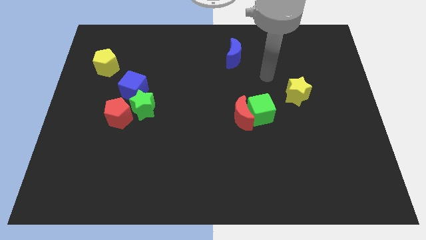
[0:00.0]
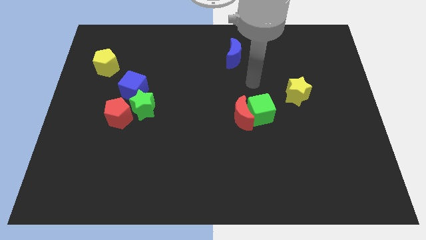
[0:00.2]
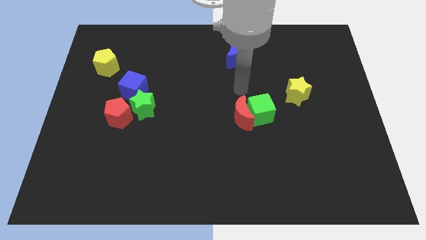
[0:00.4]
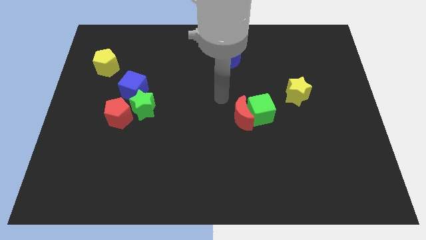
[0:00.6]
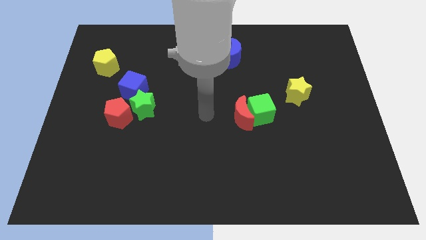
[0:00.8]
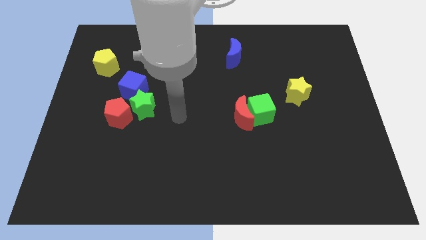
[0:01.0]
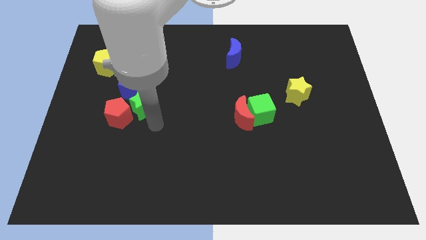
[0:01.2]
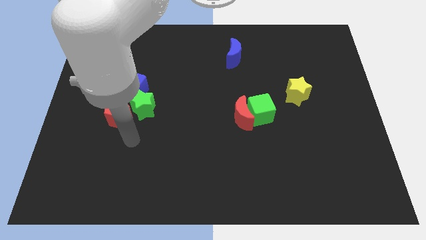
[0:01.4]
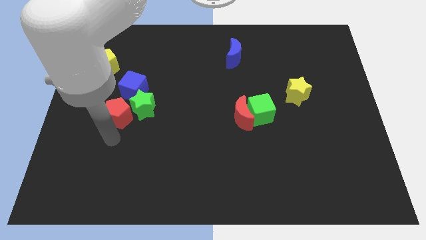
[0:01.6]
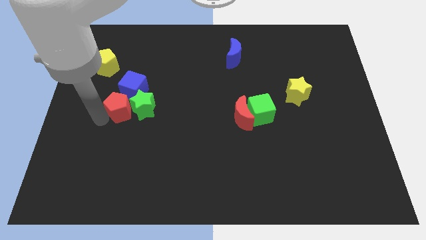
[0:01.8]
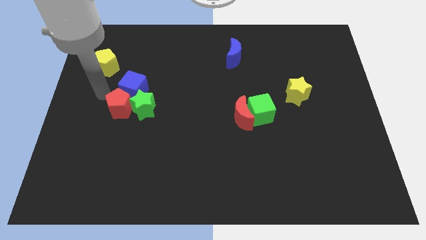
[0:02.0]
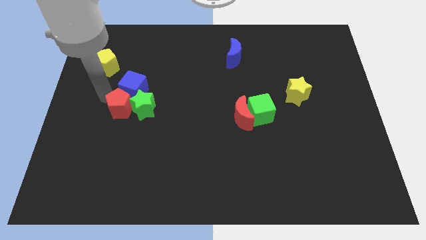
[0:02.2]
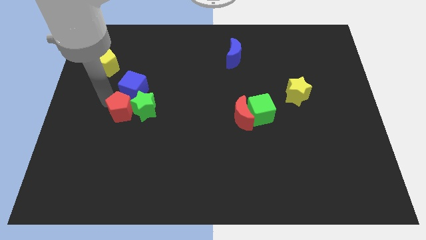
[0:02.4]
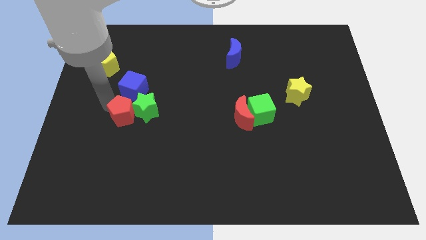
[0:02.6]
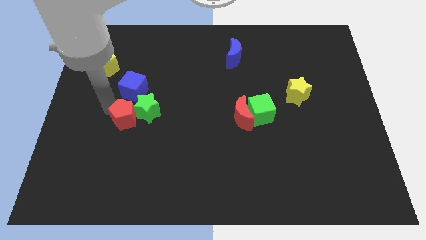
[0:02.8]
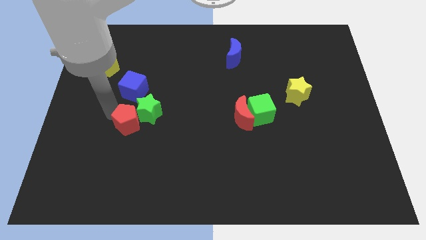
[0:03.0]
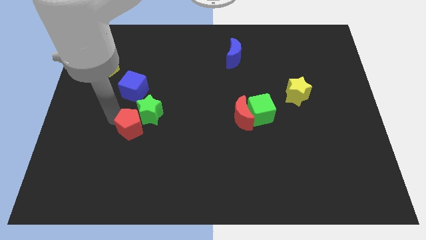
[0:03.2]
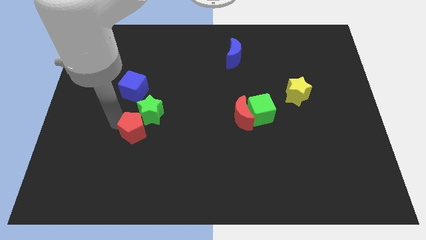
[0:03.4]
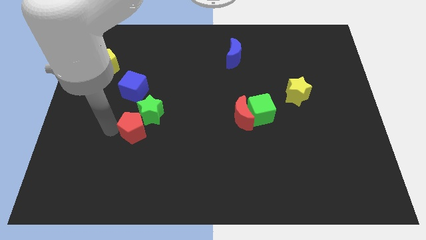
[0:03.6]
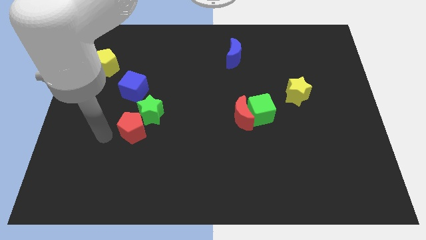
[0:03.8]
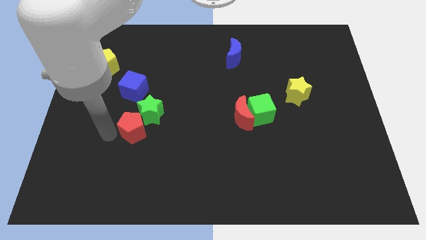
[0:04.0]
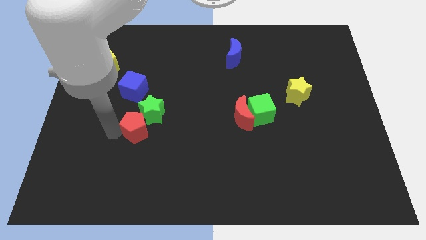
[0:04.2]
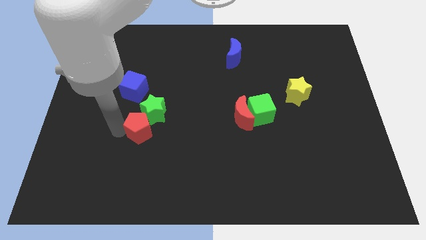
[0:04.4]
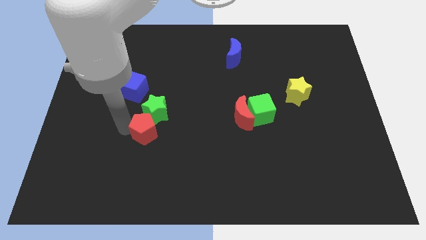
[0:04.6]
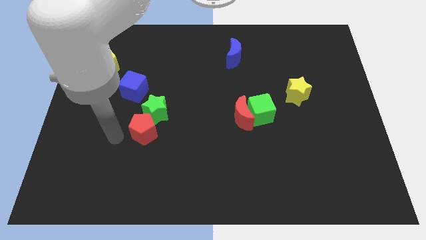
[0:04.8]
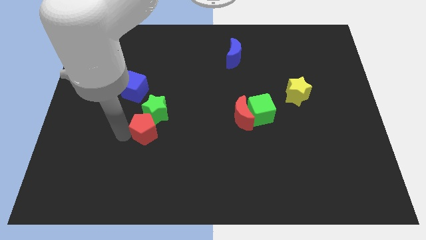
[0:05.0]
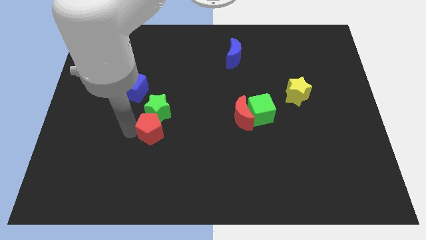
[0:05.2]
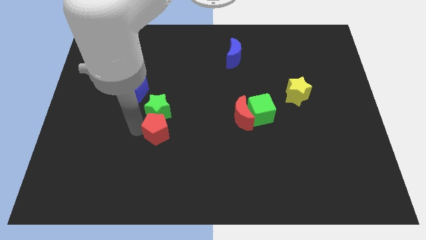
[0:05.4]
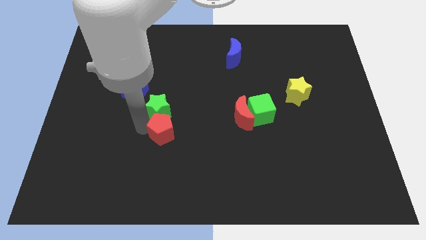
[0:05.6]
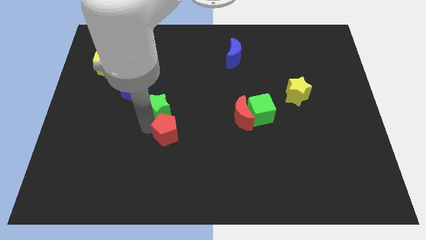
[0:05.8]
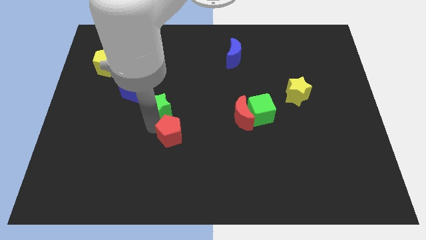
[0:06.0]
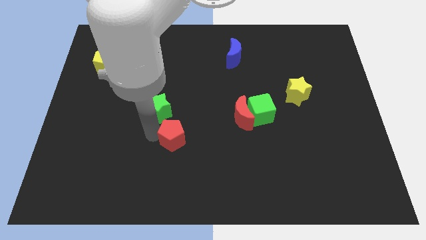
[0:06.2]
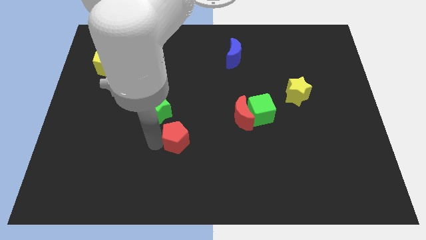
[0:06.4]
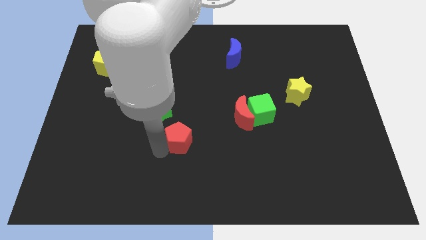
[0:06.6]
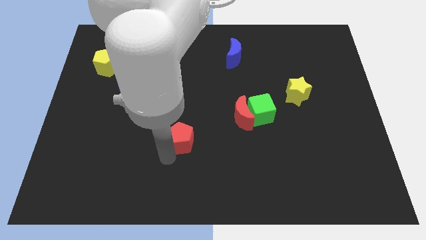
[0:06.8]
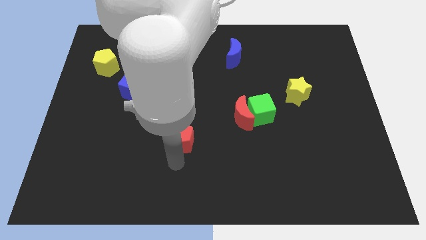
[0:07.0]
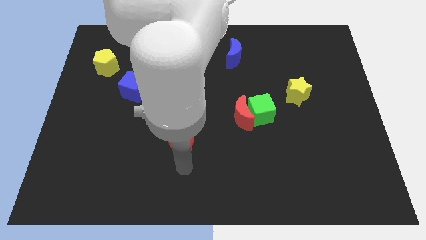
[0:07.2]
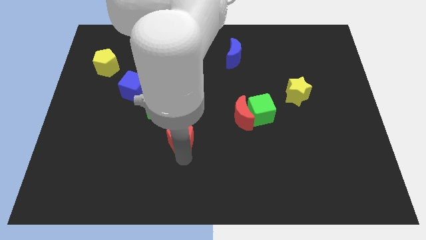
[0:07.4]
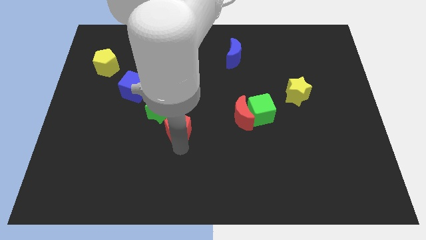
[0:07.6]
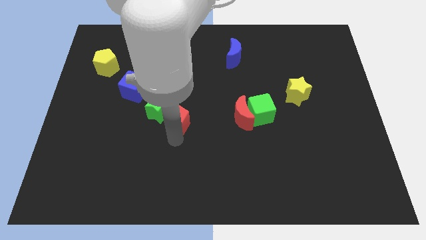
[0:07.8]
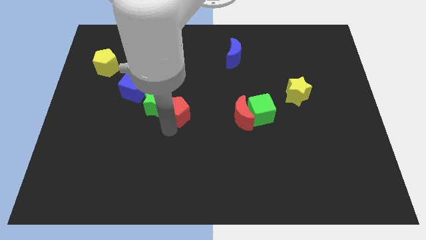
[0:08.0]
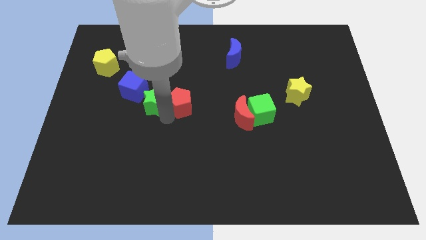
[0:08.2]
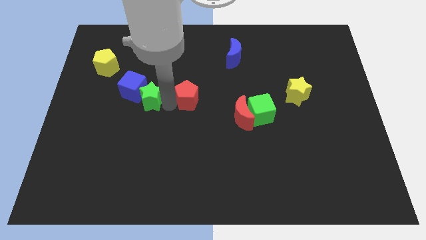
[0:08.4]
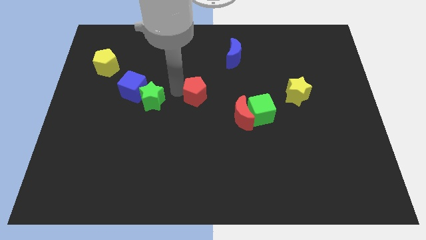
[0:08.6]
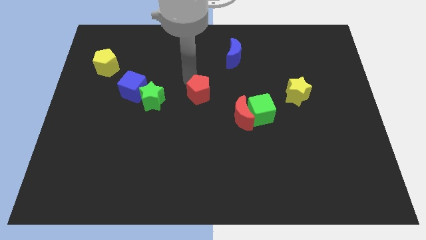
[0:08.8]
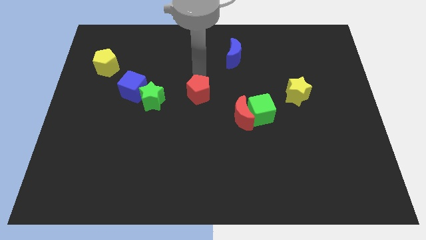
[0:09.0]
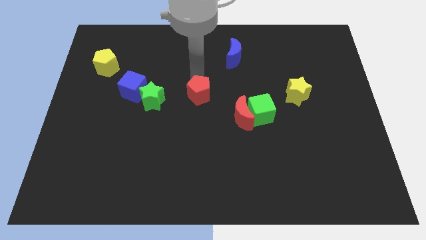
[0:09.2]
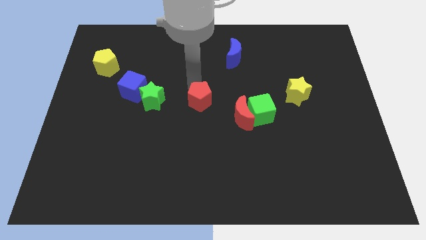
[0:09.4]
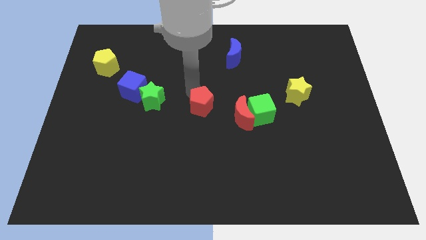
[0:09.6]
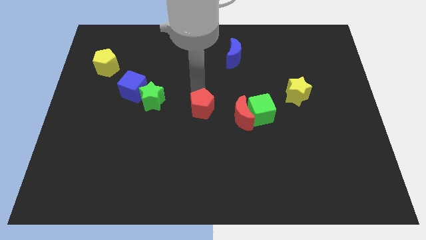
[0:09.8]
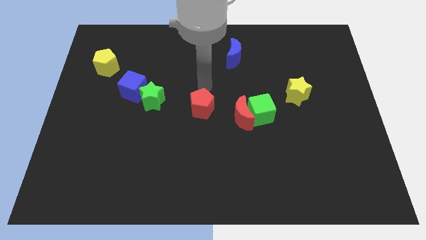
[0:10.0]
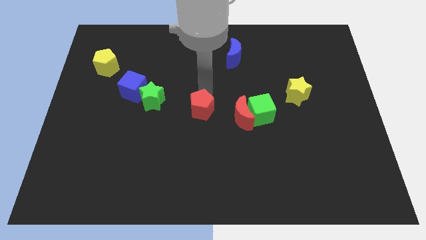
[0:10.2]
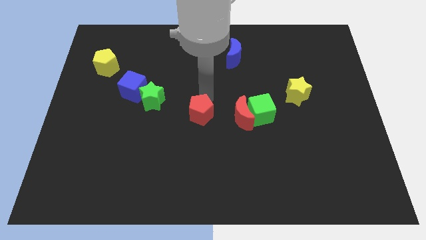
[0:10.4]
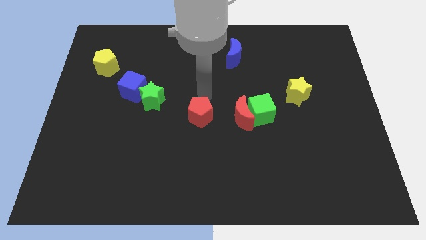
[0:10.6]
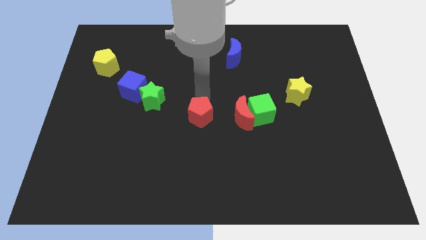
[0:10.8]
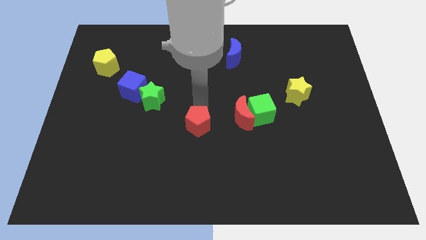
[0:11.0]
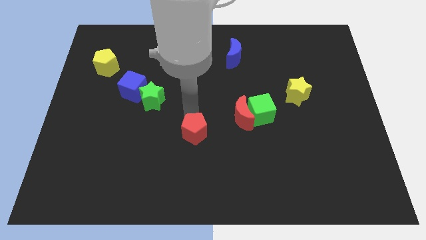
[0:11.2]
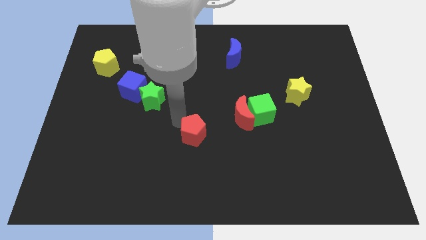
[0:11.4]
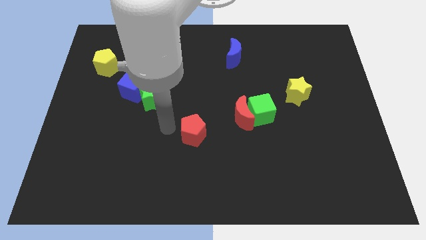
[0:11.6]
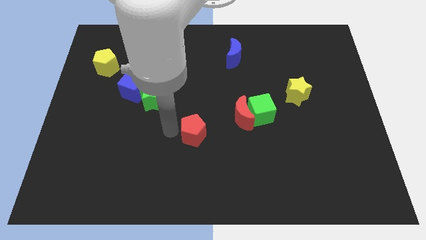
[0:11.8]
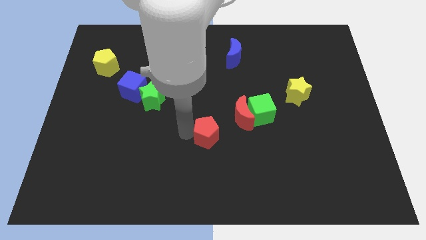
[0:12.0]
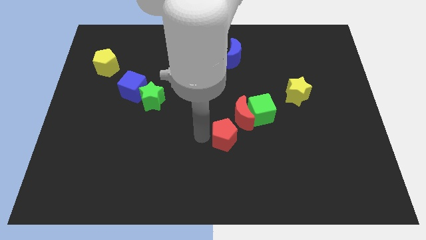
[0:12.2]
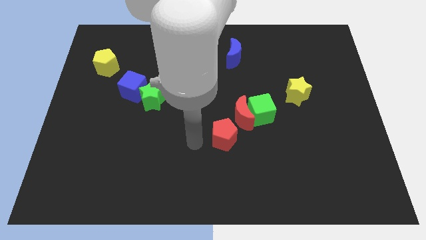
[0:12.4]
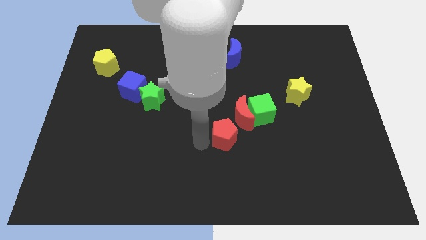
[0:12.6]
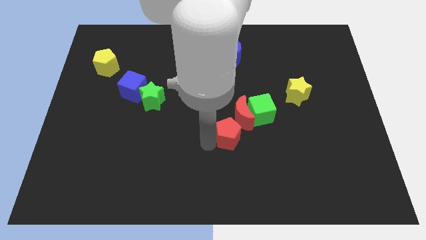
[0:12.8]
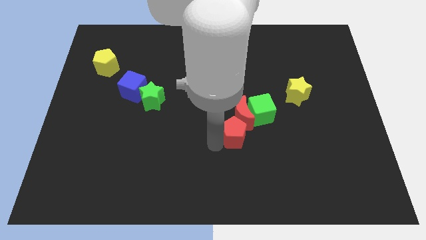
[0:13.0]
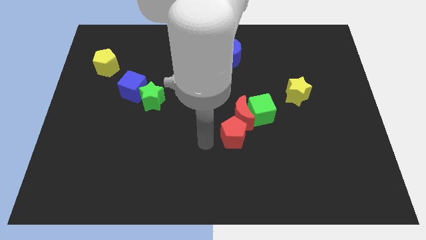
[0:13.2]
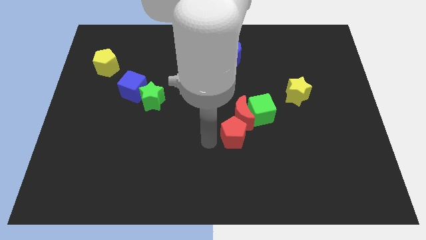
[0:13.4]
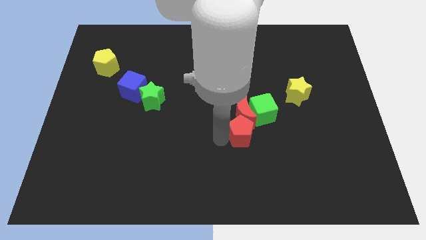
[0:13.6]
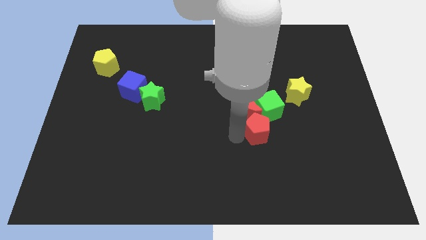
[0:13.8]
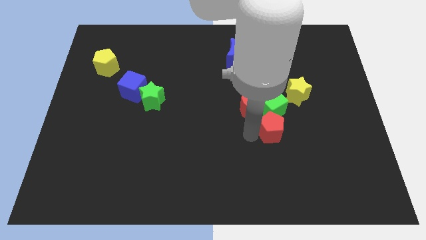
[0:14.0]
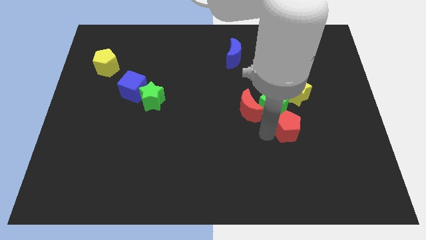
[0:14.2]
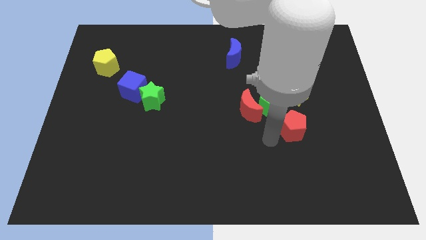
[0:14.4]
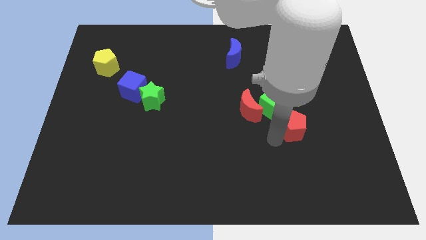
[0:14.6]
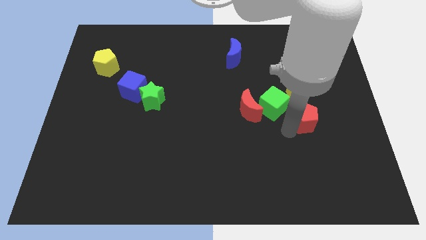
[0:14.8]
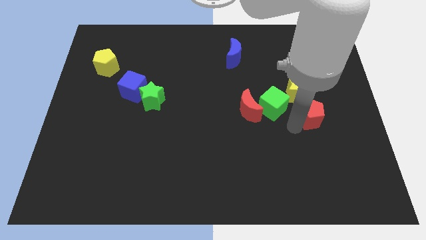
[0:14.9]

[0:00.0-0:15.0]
push the red pentagon to the bottom right side of the yellow star
